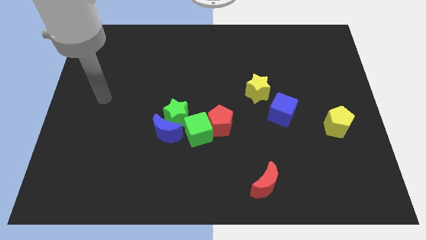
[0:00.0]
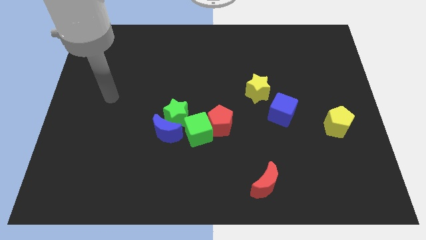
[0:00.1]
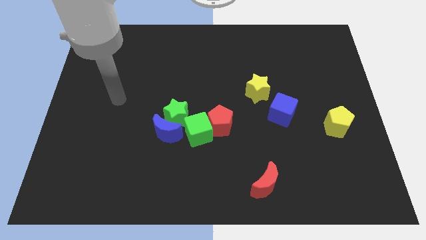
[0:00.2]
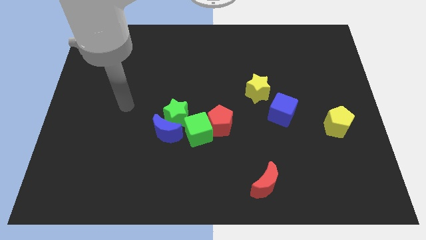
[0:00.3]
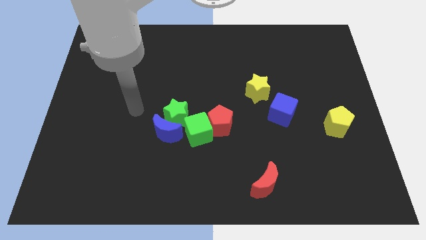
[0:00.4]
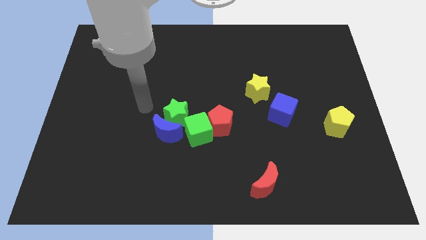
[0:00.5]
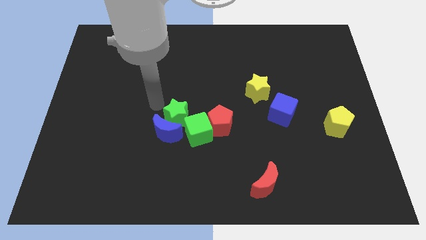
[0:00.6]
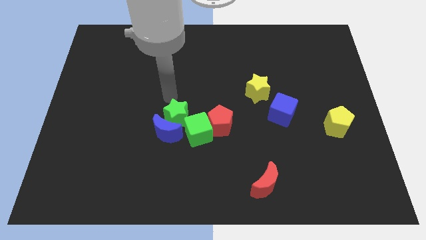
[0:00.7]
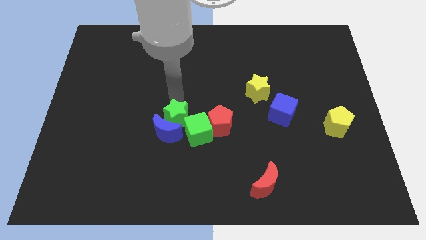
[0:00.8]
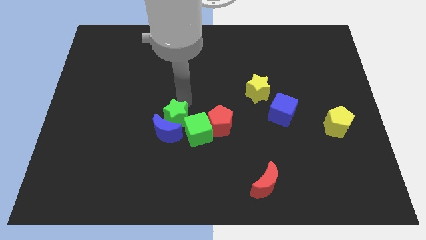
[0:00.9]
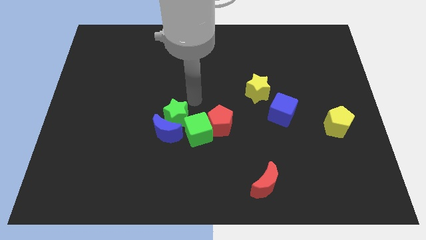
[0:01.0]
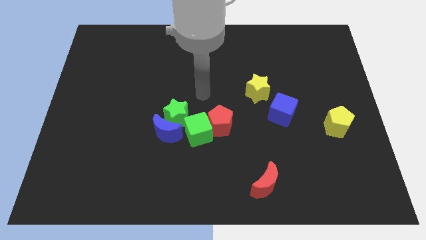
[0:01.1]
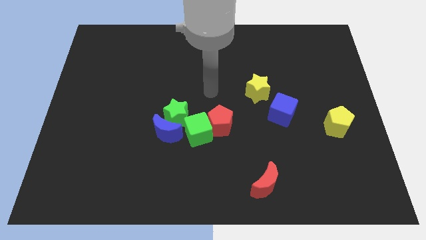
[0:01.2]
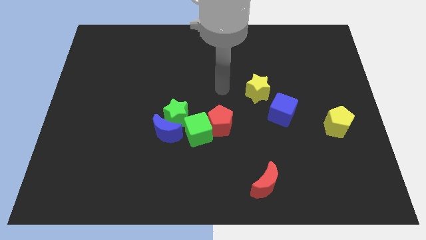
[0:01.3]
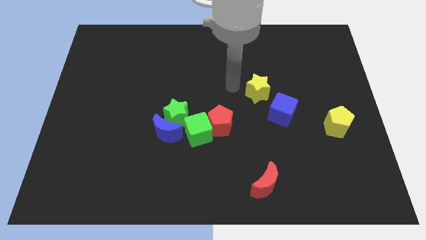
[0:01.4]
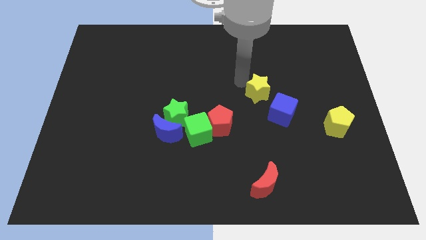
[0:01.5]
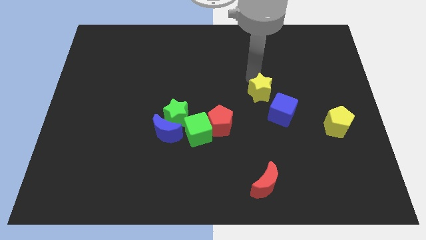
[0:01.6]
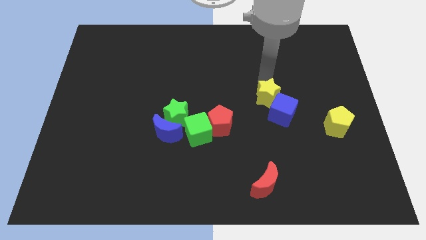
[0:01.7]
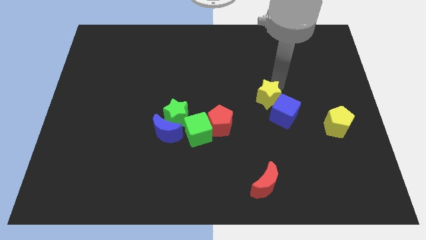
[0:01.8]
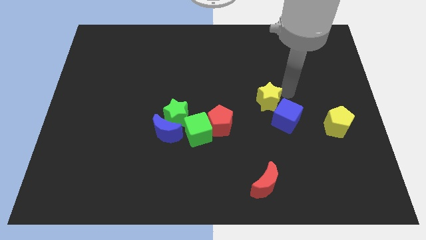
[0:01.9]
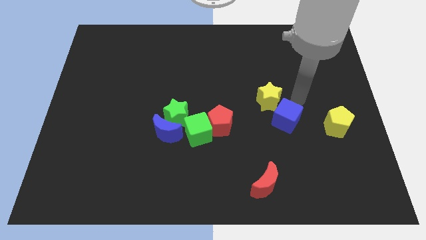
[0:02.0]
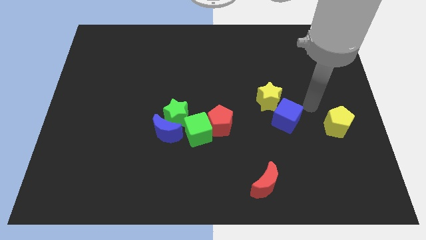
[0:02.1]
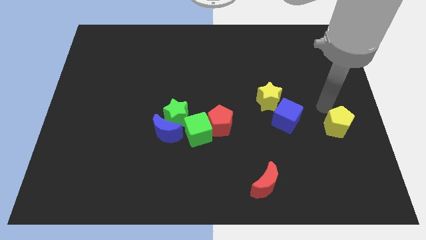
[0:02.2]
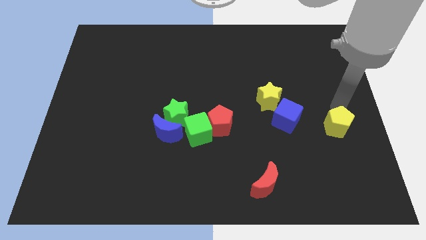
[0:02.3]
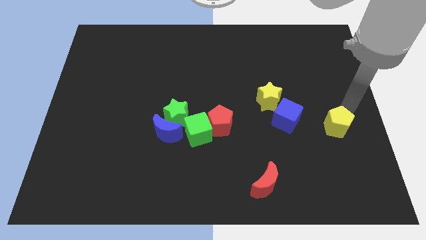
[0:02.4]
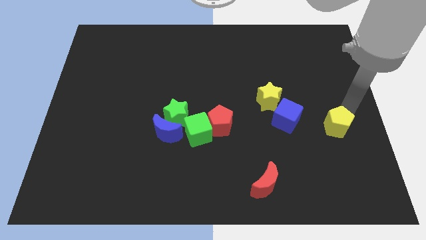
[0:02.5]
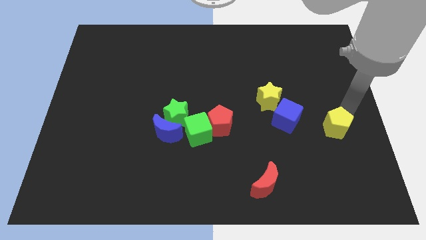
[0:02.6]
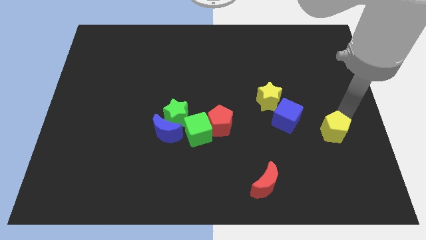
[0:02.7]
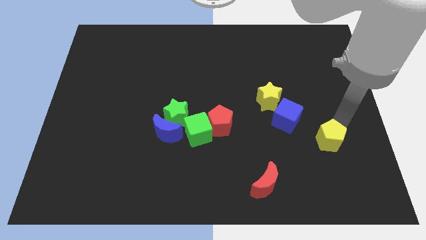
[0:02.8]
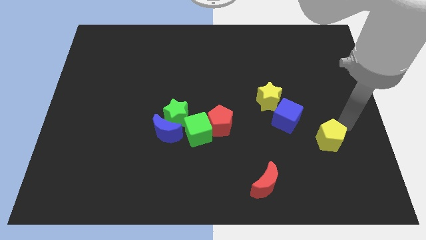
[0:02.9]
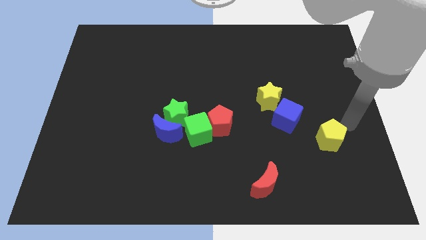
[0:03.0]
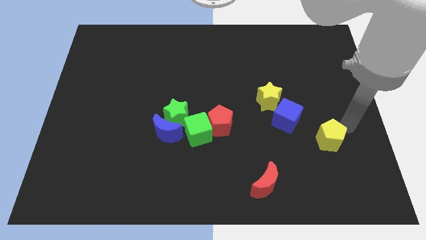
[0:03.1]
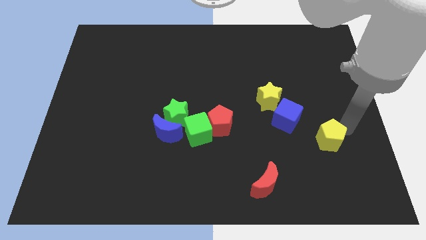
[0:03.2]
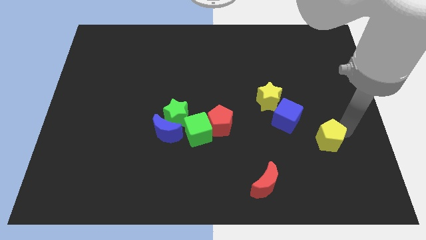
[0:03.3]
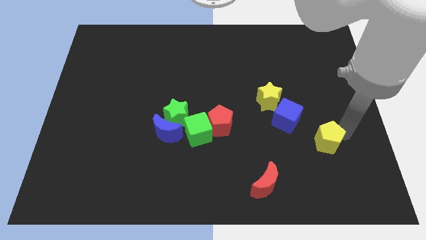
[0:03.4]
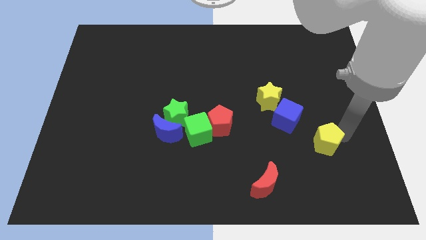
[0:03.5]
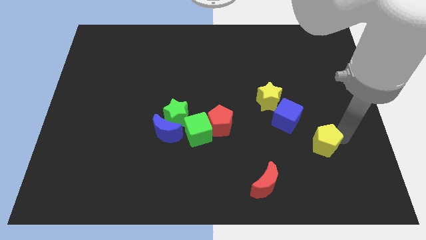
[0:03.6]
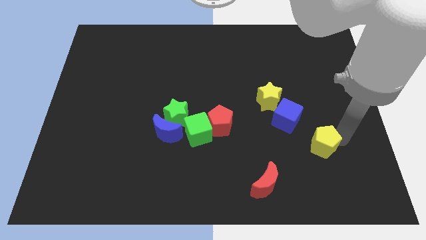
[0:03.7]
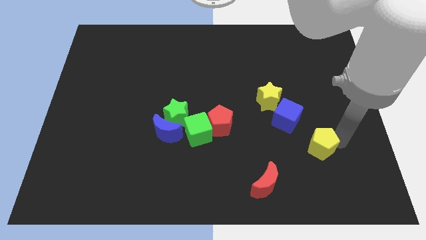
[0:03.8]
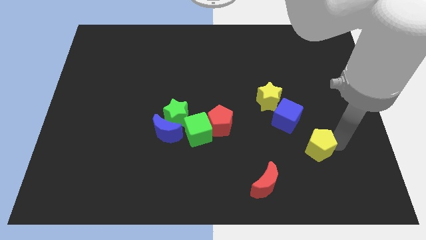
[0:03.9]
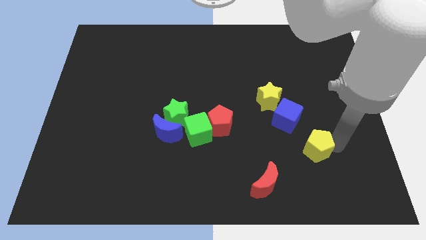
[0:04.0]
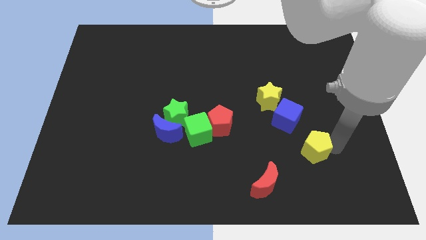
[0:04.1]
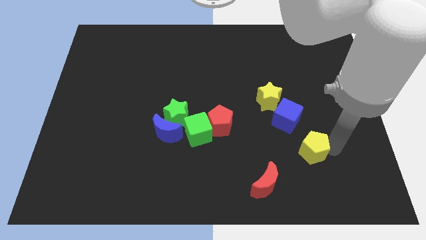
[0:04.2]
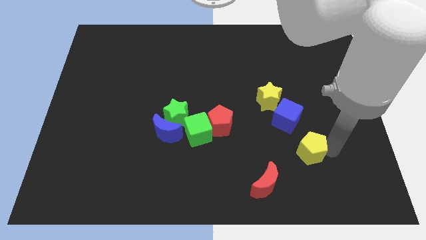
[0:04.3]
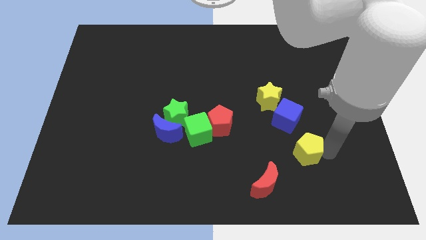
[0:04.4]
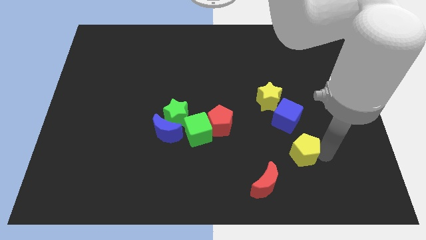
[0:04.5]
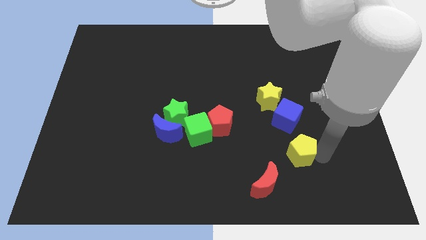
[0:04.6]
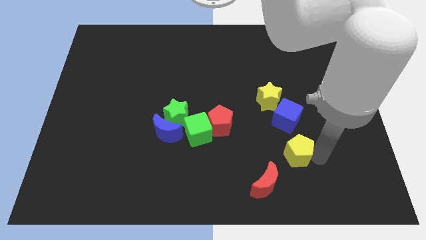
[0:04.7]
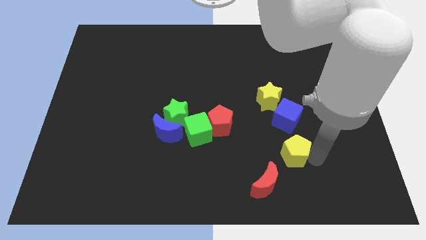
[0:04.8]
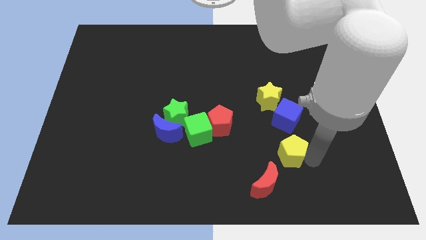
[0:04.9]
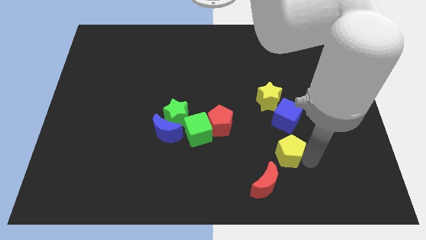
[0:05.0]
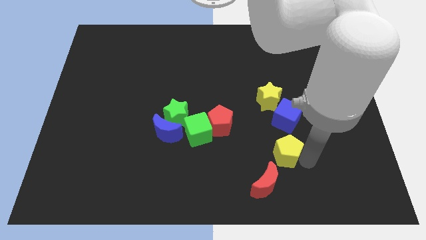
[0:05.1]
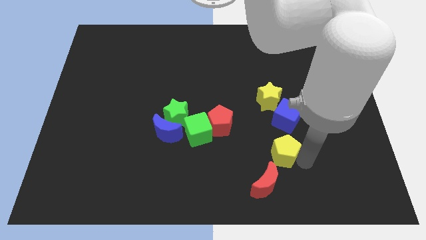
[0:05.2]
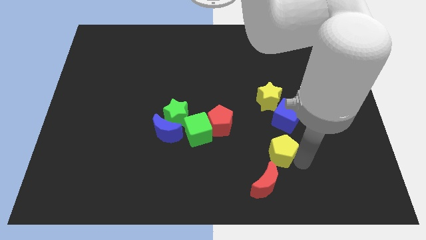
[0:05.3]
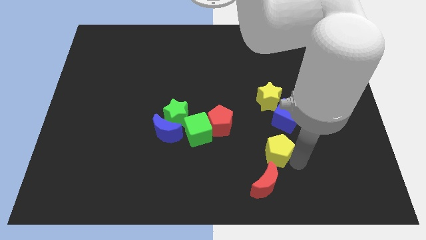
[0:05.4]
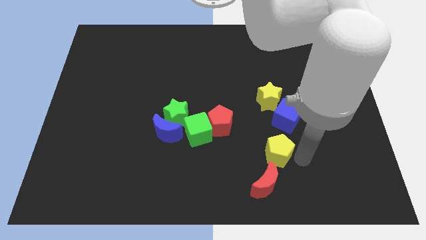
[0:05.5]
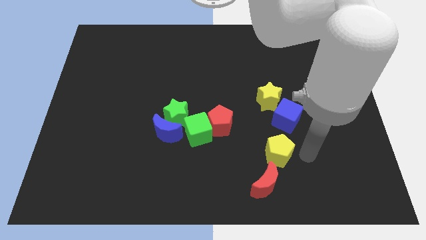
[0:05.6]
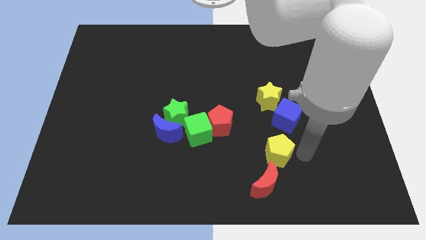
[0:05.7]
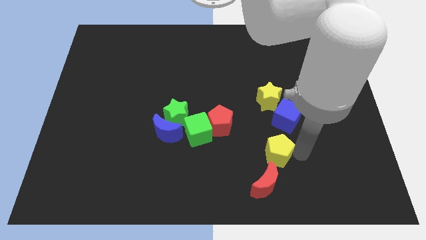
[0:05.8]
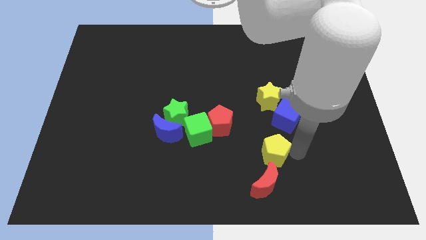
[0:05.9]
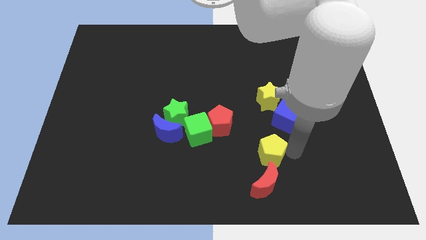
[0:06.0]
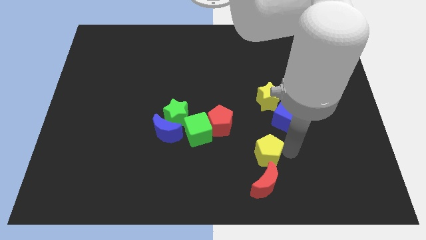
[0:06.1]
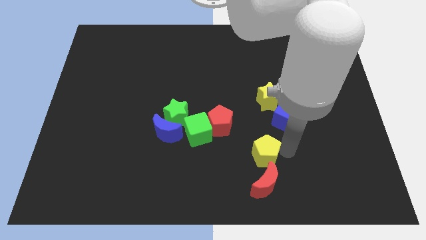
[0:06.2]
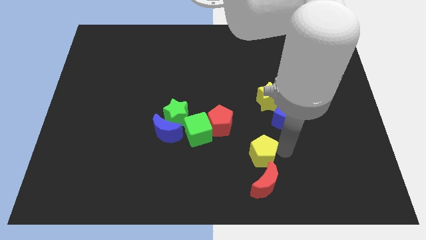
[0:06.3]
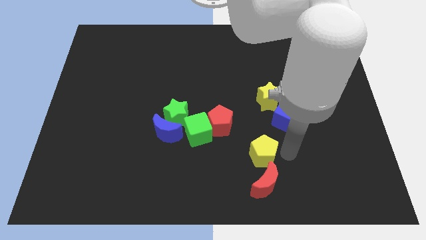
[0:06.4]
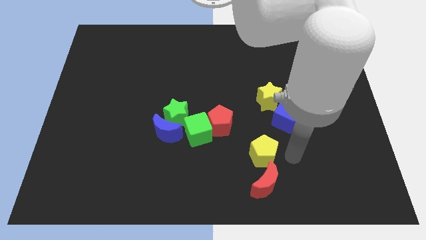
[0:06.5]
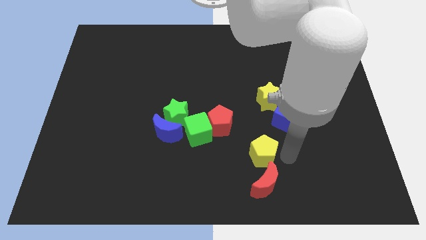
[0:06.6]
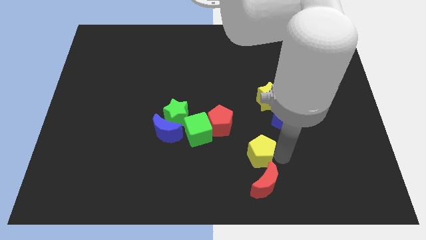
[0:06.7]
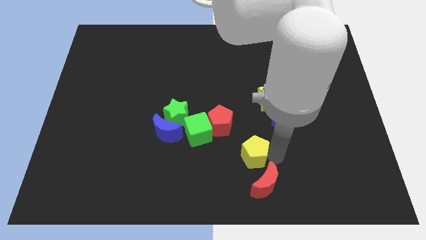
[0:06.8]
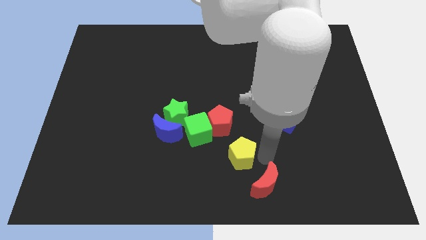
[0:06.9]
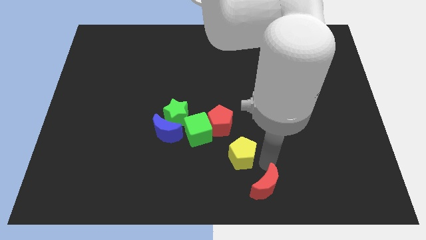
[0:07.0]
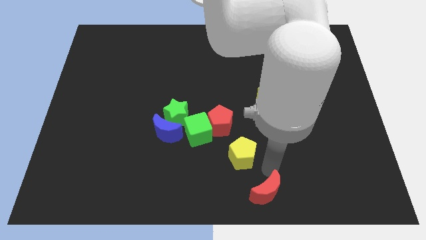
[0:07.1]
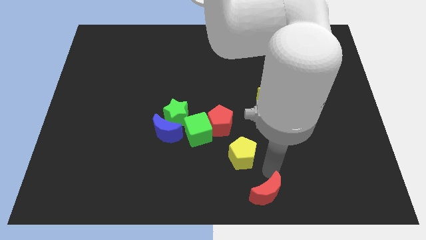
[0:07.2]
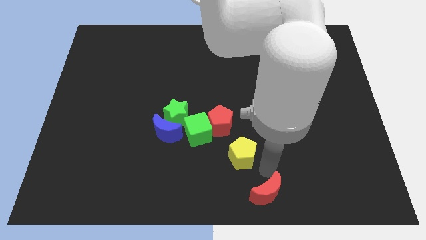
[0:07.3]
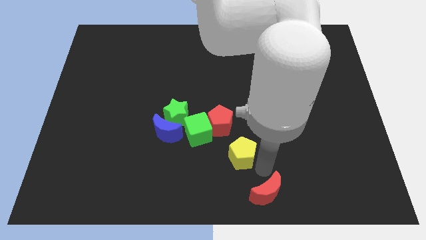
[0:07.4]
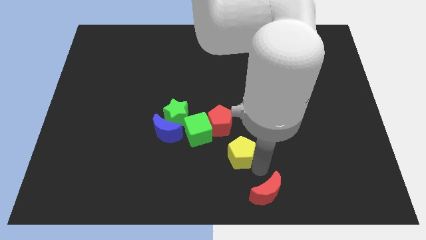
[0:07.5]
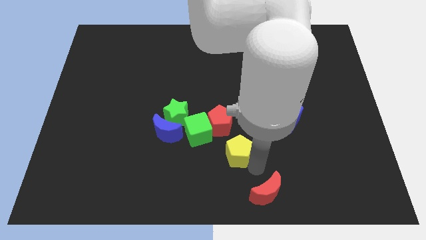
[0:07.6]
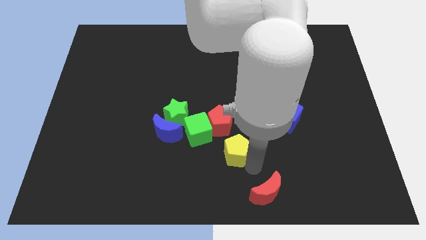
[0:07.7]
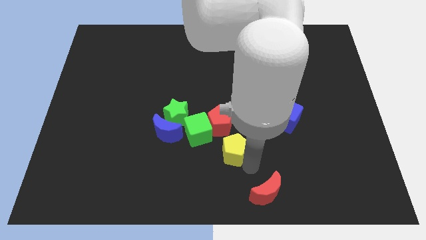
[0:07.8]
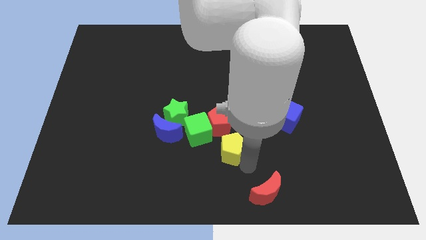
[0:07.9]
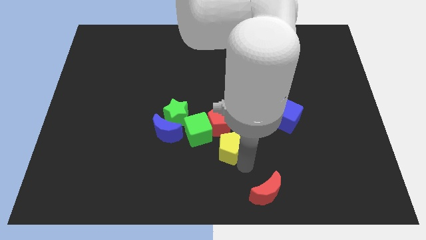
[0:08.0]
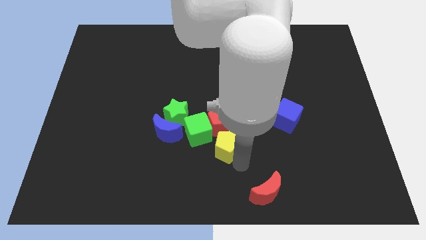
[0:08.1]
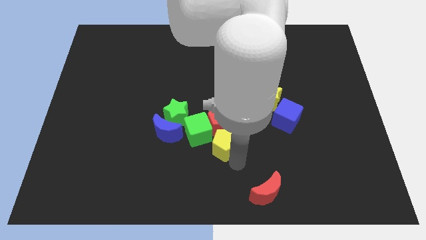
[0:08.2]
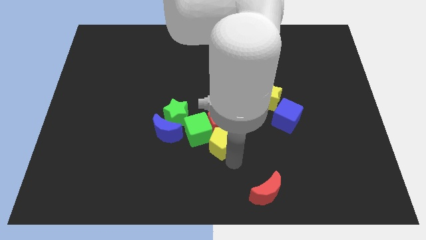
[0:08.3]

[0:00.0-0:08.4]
slide the yellow pentagon close to the green cube
